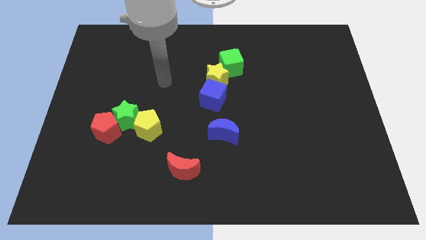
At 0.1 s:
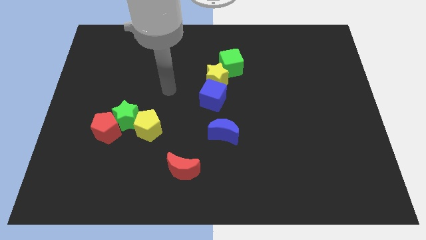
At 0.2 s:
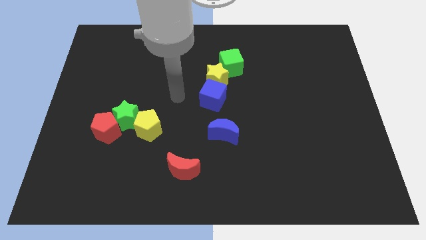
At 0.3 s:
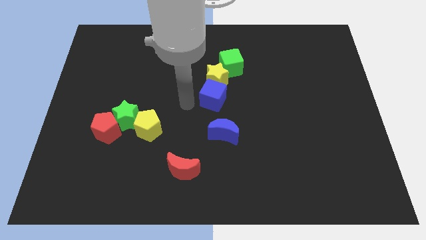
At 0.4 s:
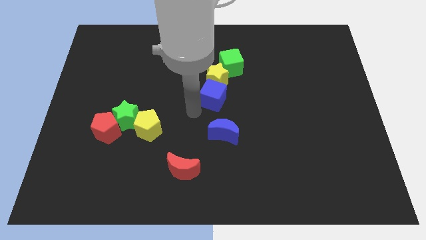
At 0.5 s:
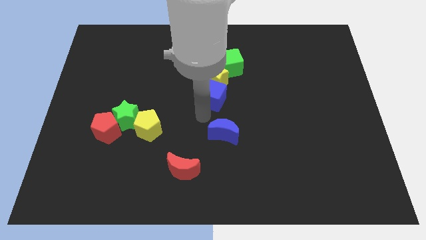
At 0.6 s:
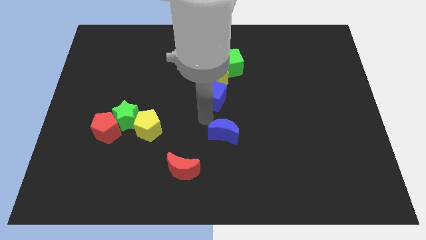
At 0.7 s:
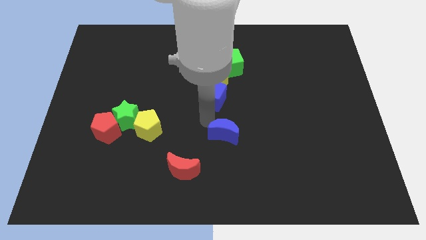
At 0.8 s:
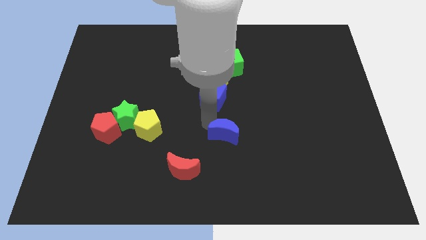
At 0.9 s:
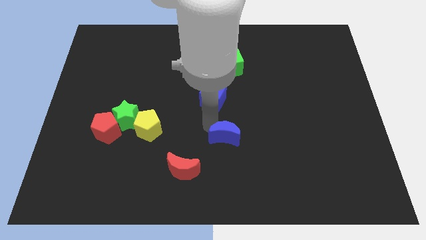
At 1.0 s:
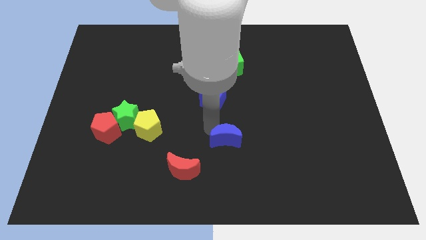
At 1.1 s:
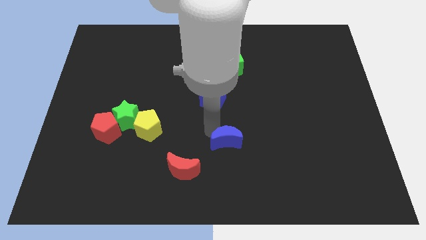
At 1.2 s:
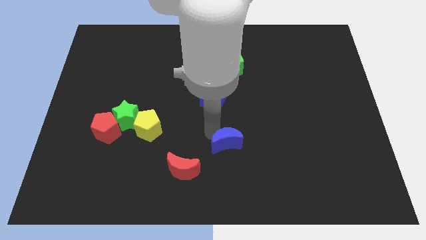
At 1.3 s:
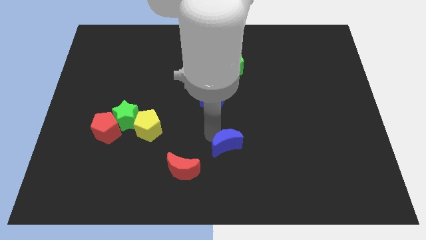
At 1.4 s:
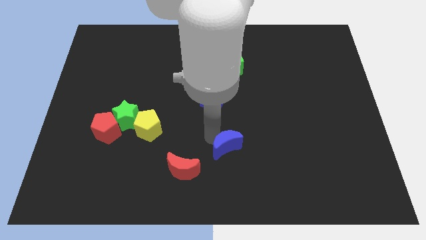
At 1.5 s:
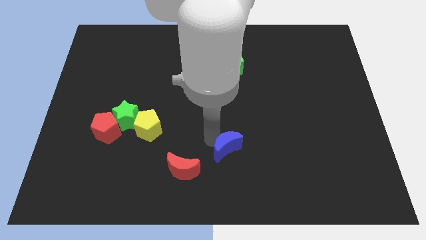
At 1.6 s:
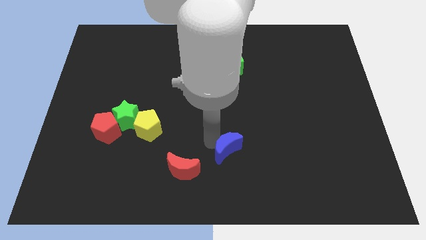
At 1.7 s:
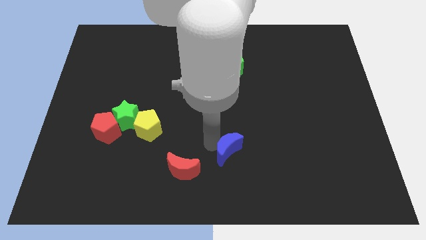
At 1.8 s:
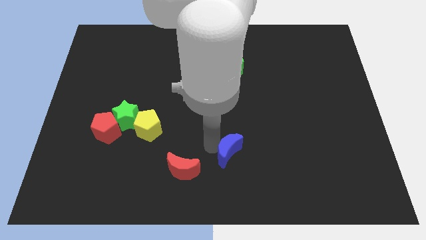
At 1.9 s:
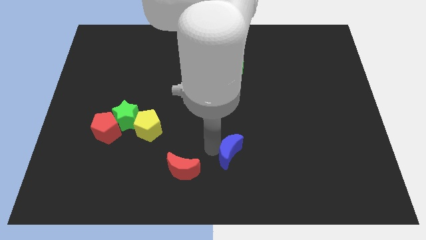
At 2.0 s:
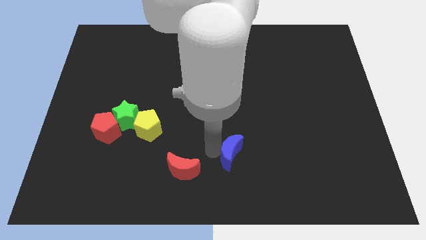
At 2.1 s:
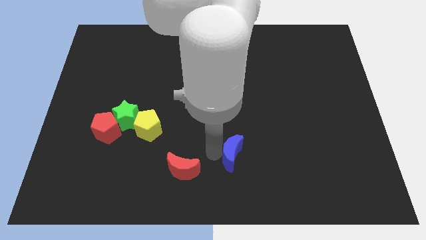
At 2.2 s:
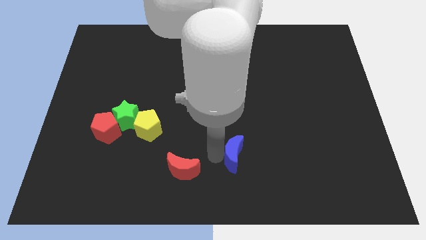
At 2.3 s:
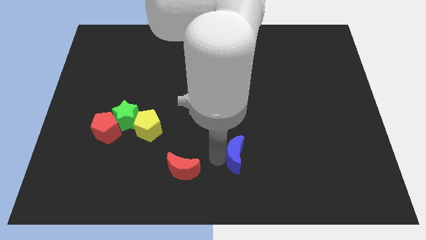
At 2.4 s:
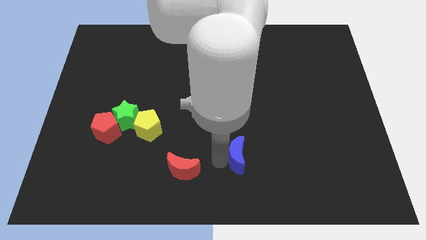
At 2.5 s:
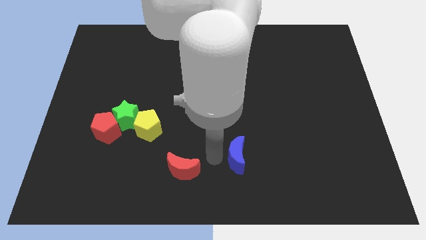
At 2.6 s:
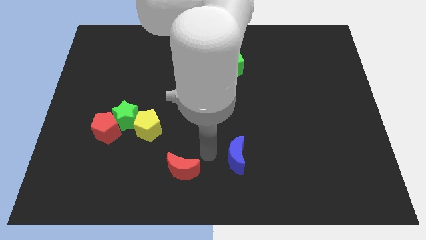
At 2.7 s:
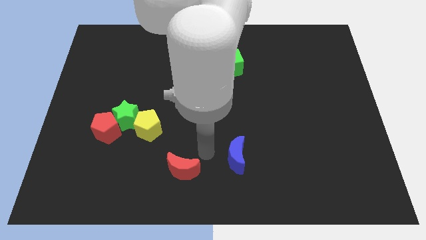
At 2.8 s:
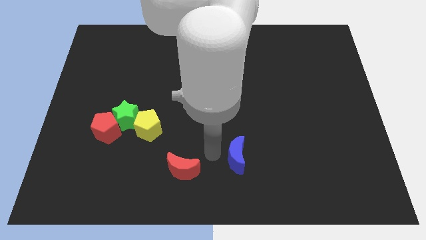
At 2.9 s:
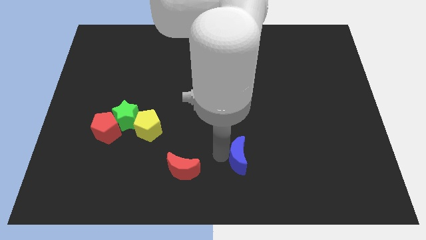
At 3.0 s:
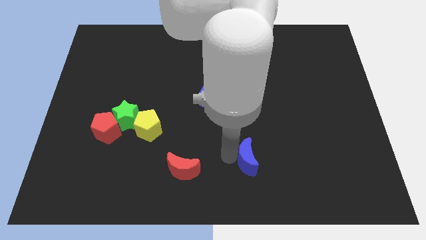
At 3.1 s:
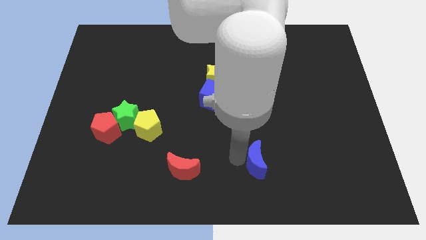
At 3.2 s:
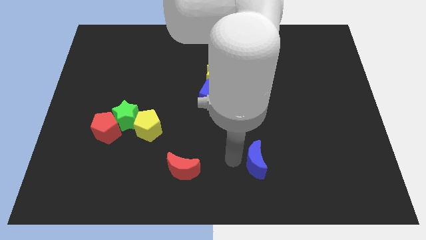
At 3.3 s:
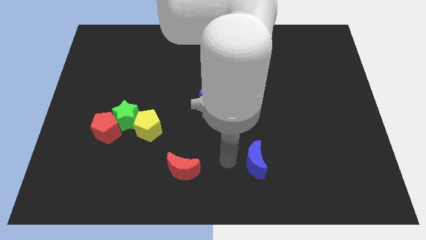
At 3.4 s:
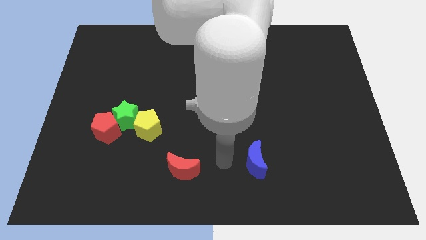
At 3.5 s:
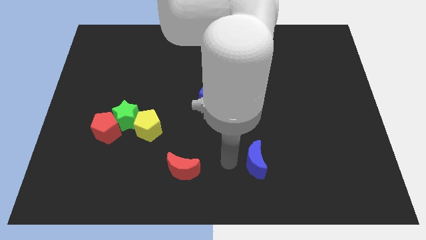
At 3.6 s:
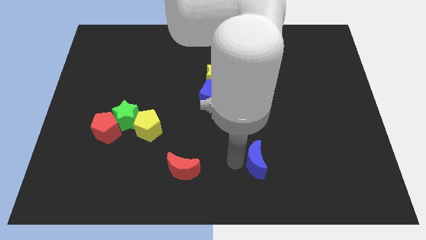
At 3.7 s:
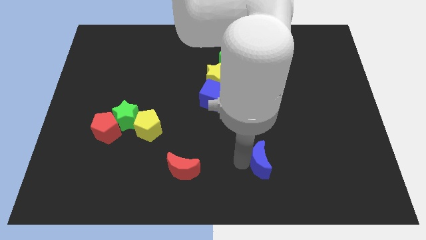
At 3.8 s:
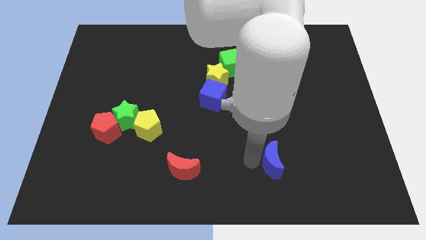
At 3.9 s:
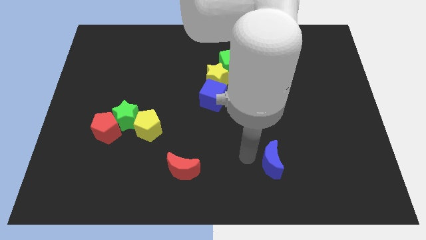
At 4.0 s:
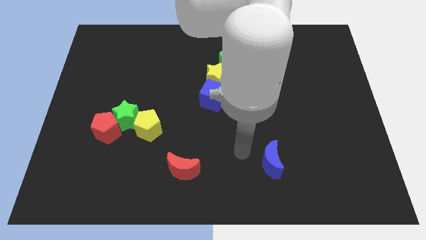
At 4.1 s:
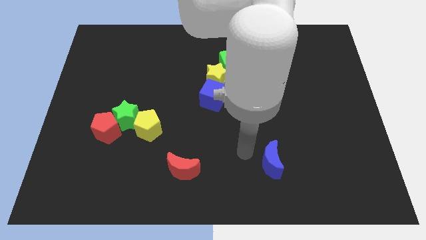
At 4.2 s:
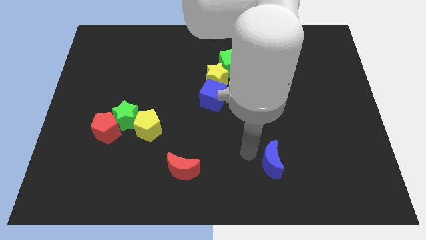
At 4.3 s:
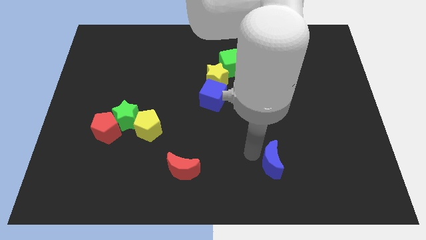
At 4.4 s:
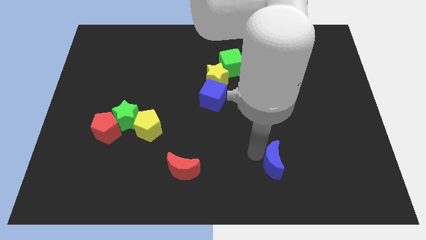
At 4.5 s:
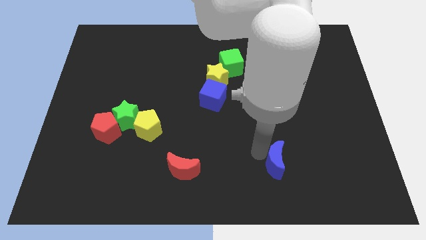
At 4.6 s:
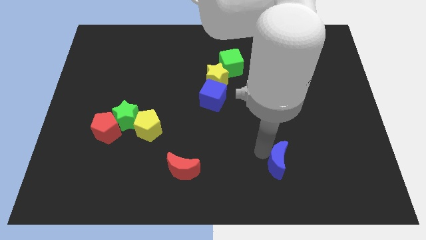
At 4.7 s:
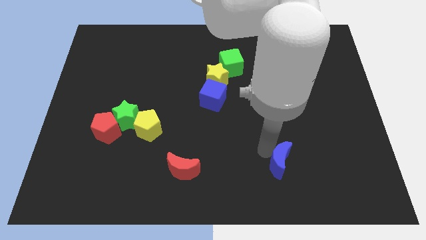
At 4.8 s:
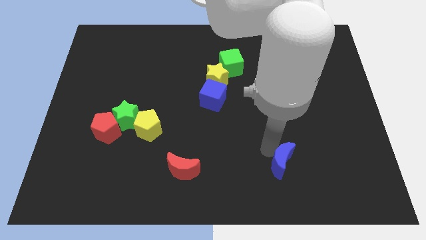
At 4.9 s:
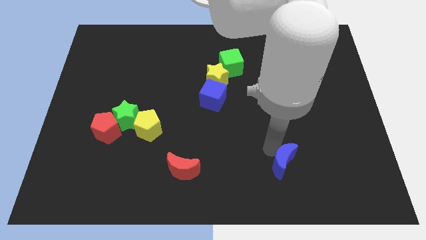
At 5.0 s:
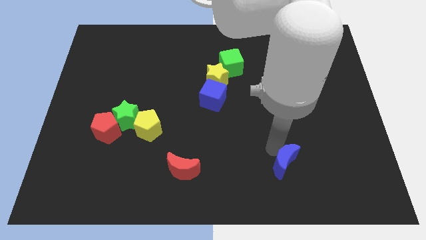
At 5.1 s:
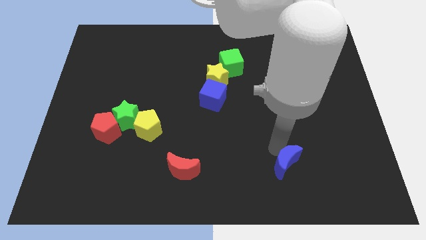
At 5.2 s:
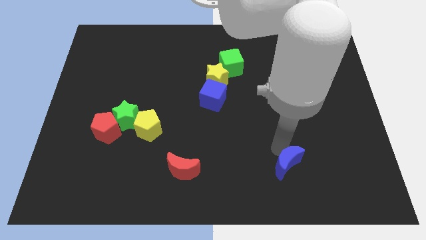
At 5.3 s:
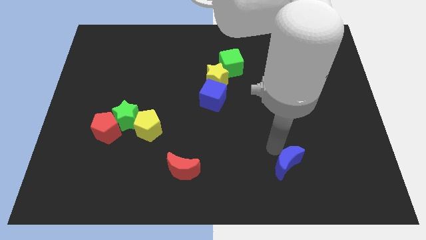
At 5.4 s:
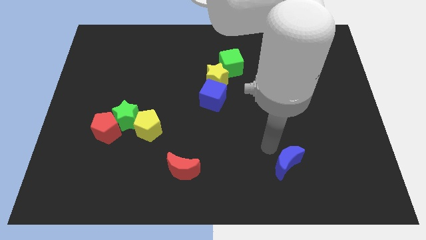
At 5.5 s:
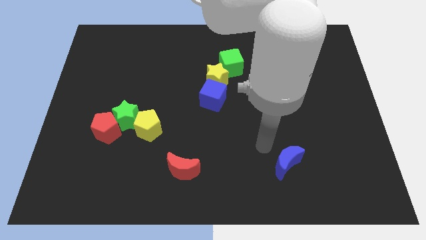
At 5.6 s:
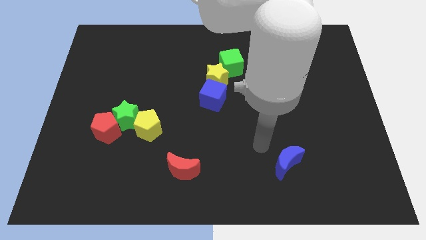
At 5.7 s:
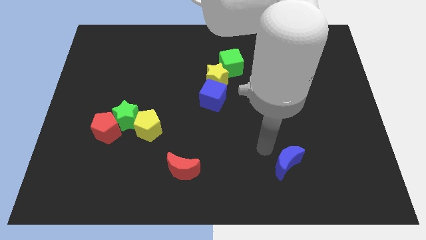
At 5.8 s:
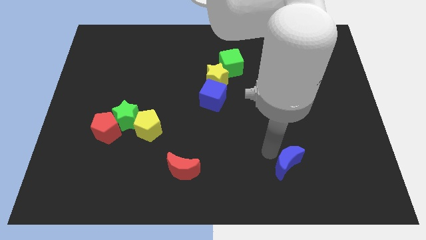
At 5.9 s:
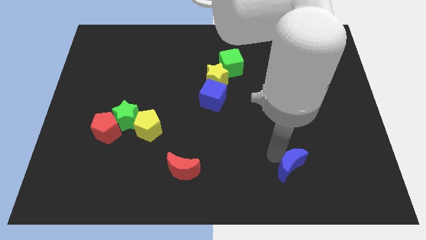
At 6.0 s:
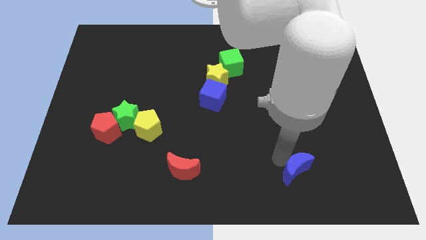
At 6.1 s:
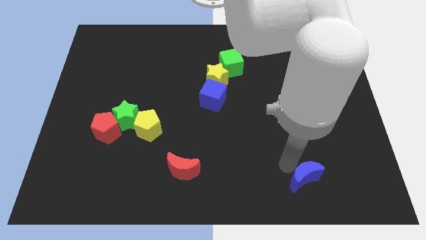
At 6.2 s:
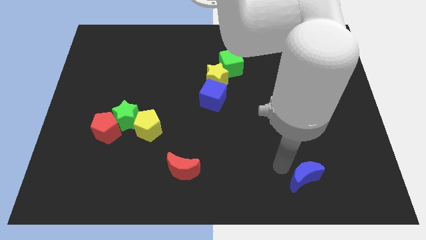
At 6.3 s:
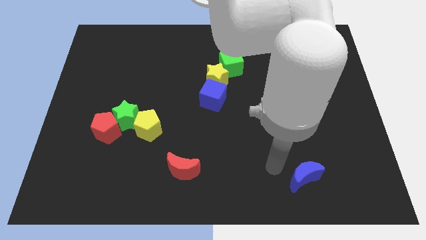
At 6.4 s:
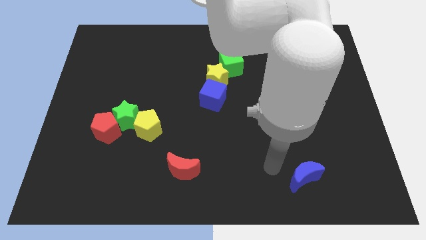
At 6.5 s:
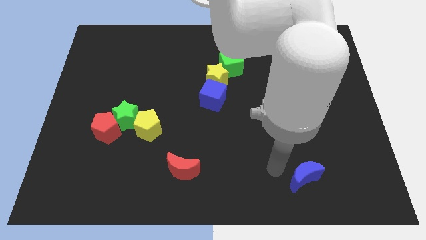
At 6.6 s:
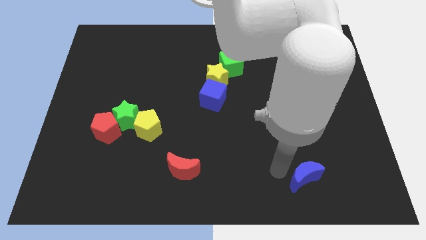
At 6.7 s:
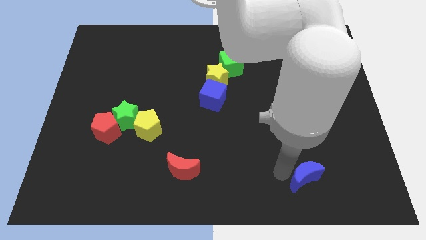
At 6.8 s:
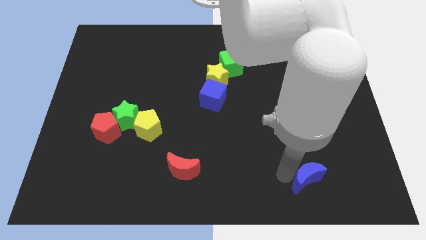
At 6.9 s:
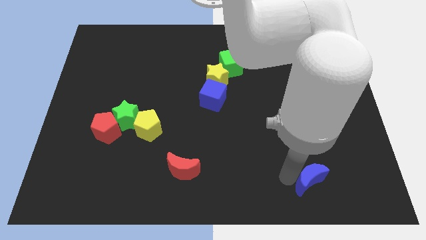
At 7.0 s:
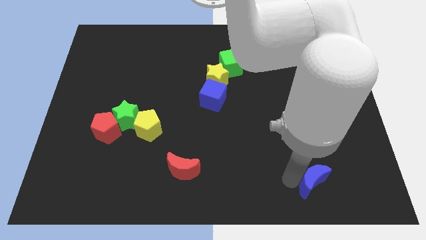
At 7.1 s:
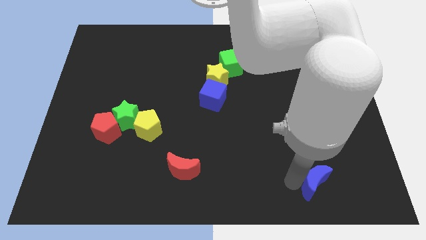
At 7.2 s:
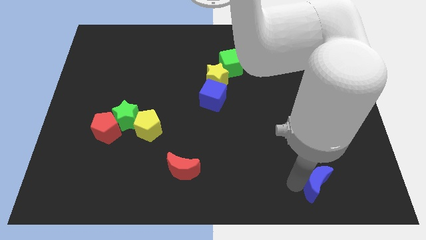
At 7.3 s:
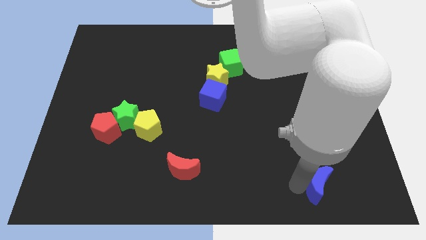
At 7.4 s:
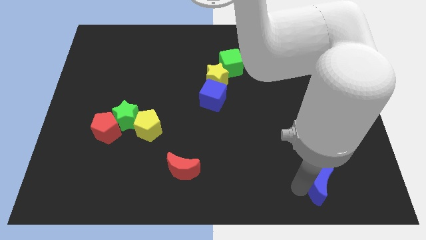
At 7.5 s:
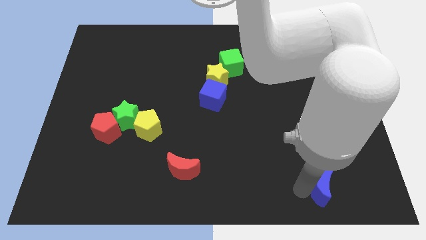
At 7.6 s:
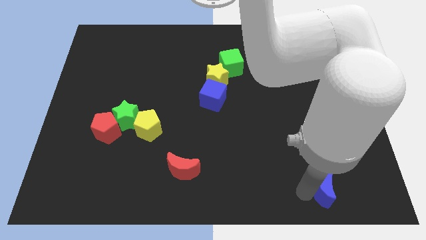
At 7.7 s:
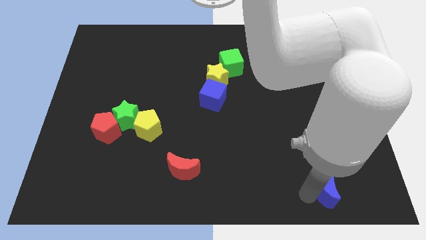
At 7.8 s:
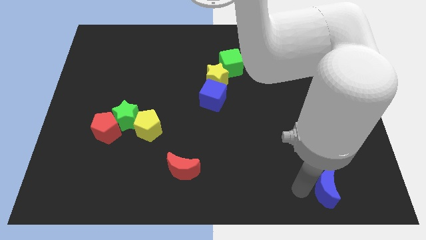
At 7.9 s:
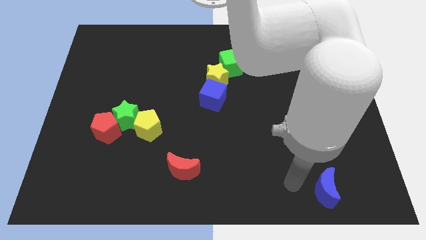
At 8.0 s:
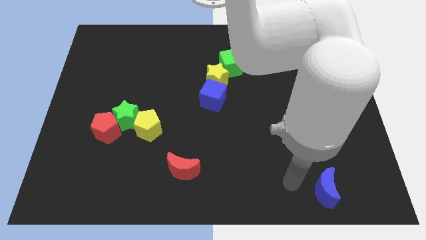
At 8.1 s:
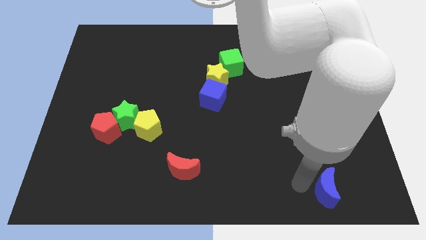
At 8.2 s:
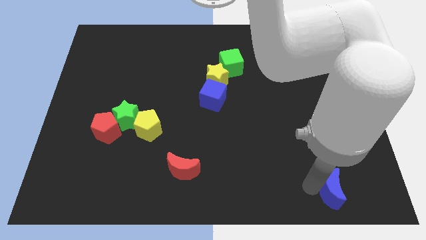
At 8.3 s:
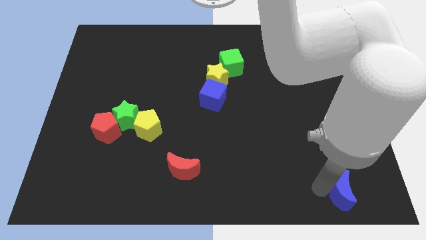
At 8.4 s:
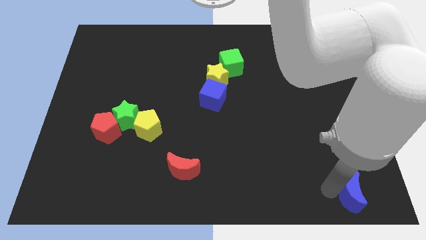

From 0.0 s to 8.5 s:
put the blue moon to the bottom right corner
